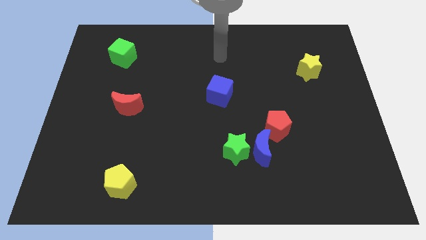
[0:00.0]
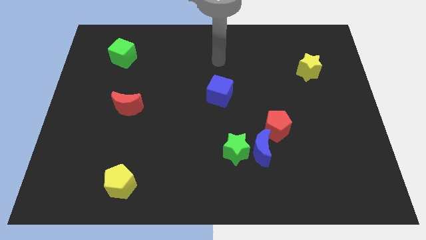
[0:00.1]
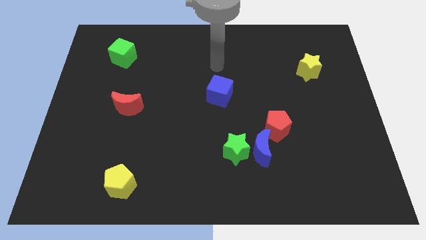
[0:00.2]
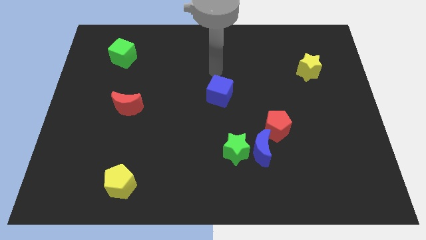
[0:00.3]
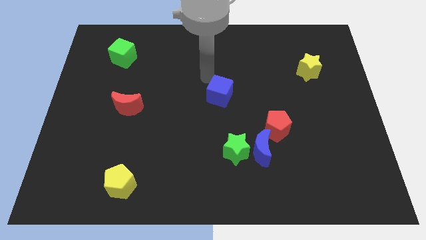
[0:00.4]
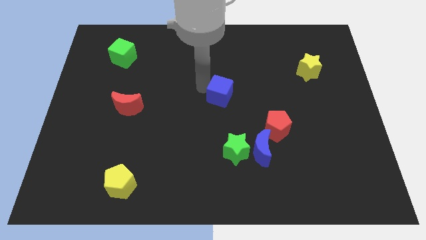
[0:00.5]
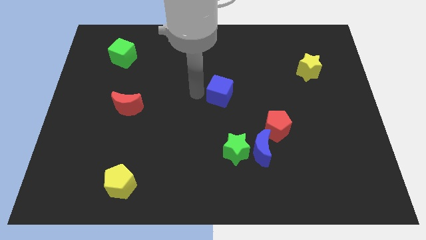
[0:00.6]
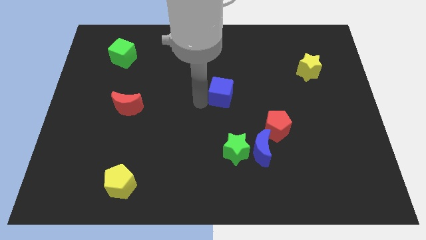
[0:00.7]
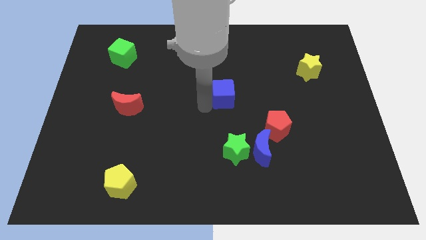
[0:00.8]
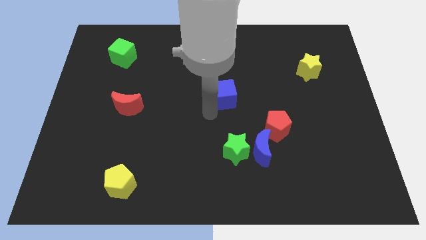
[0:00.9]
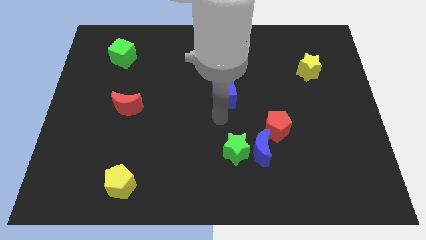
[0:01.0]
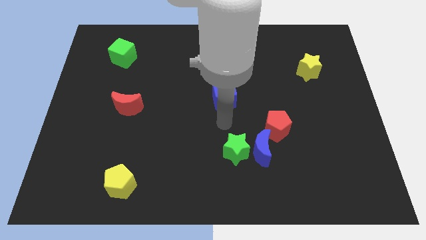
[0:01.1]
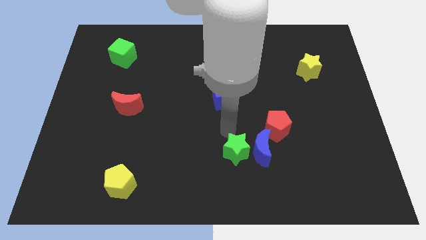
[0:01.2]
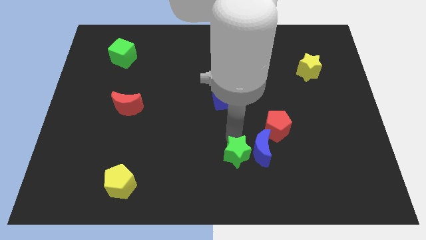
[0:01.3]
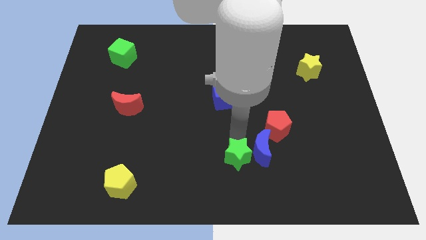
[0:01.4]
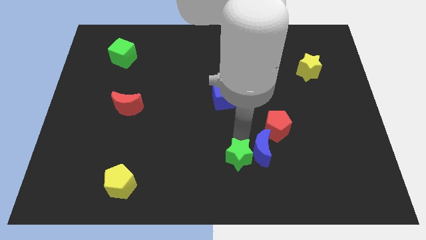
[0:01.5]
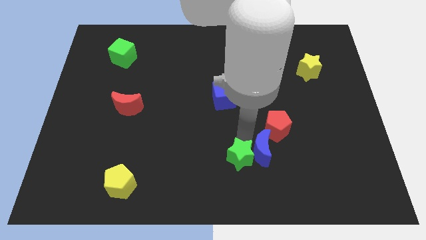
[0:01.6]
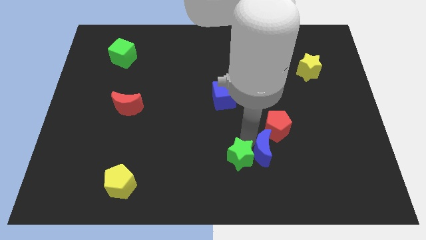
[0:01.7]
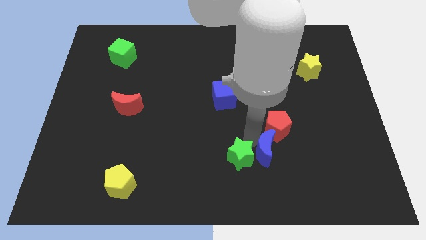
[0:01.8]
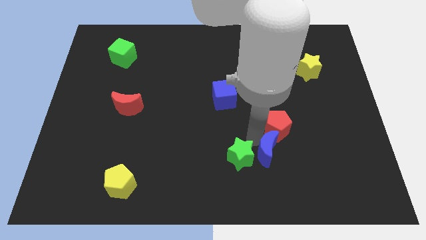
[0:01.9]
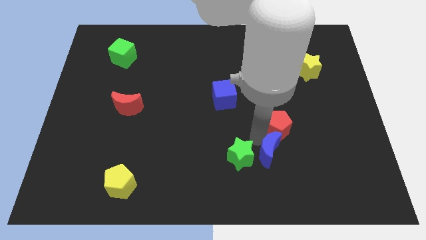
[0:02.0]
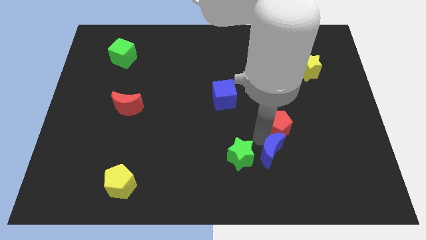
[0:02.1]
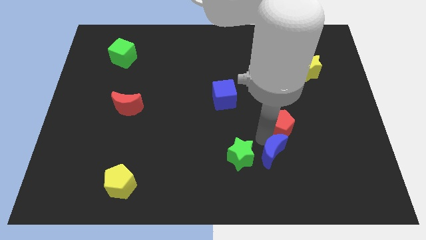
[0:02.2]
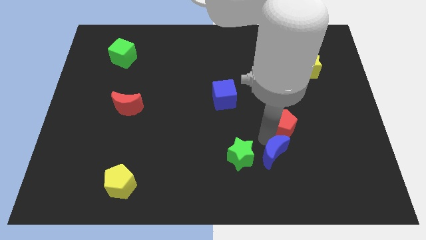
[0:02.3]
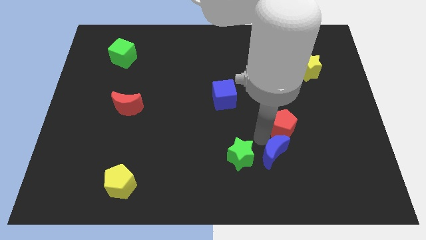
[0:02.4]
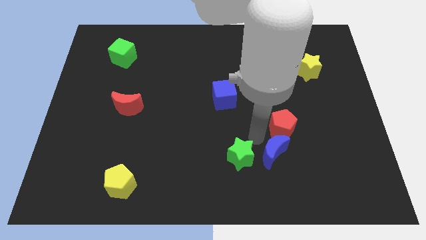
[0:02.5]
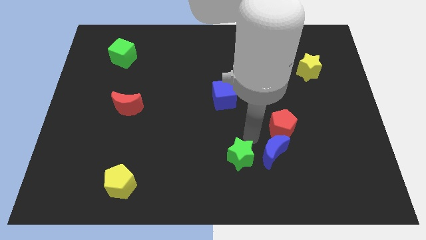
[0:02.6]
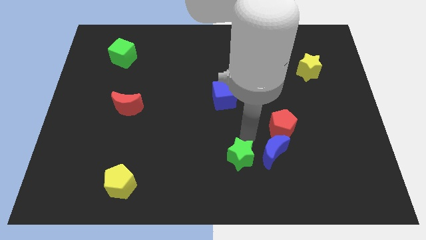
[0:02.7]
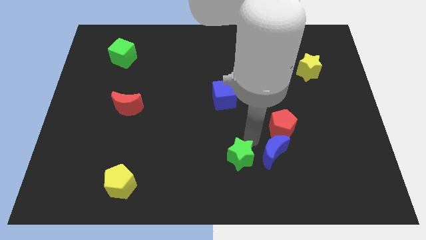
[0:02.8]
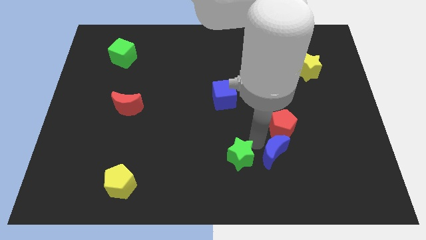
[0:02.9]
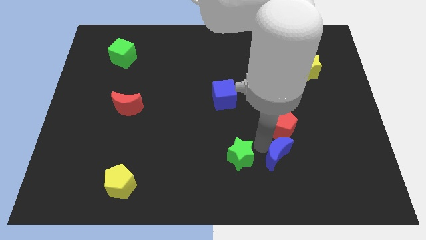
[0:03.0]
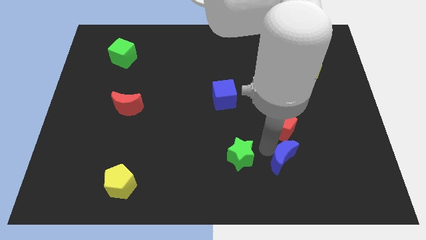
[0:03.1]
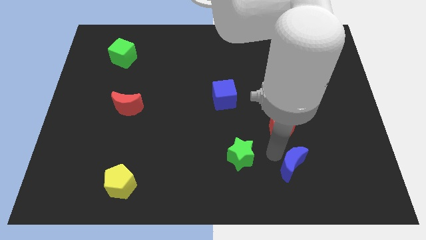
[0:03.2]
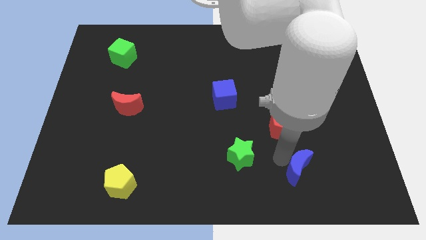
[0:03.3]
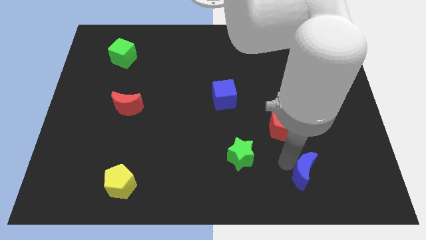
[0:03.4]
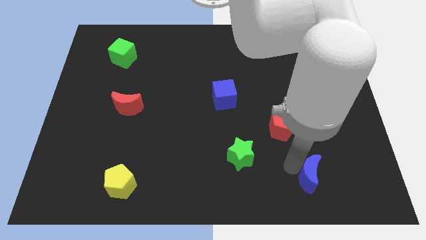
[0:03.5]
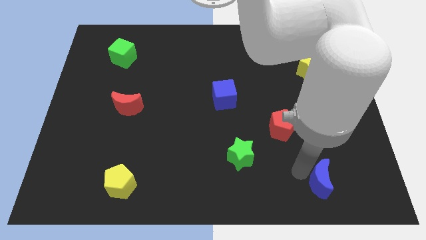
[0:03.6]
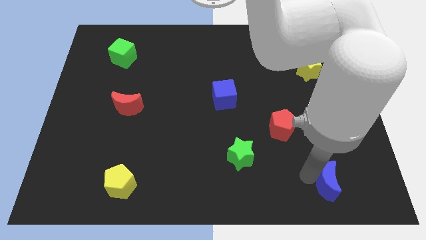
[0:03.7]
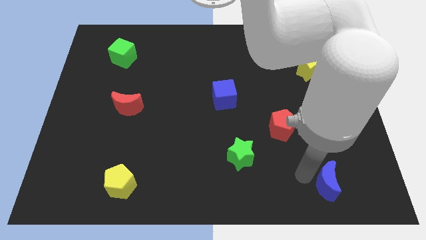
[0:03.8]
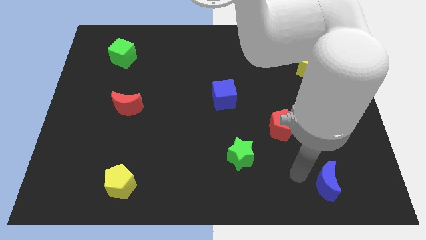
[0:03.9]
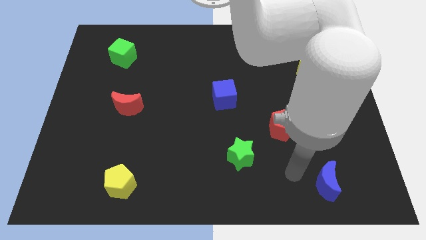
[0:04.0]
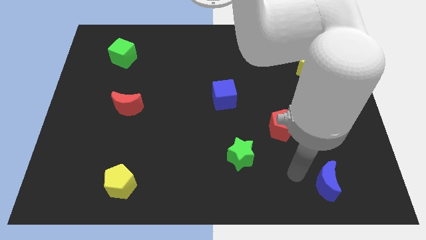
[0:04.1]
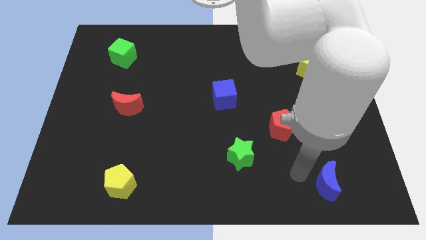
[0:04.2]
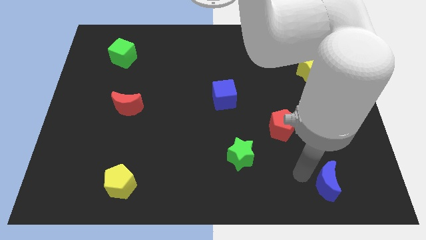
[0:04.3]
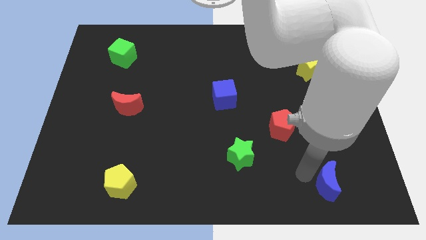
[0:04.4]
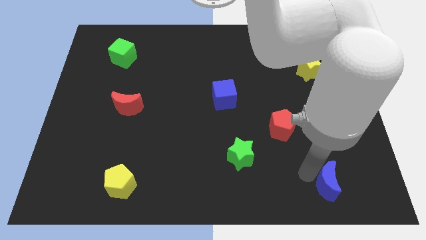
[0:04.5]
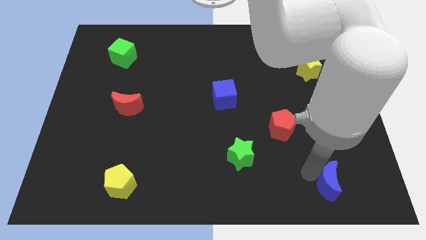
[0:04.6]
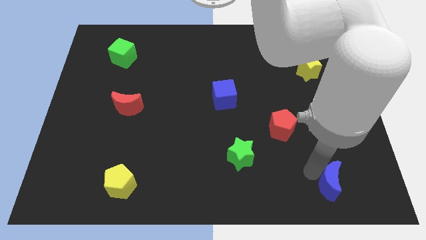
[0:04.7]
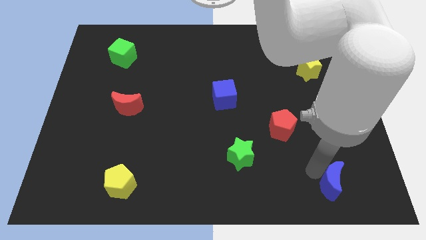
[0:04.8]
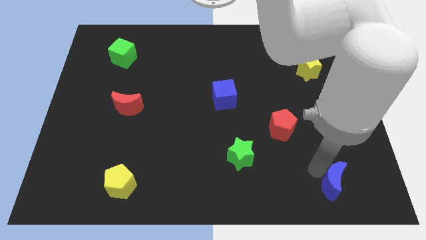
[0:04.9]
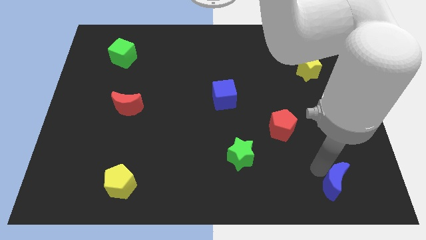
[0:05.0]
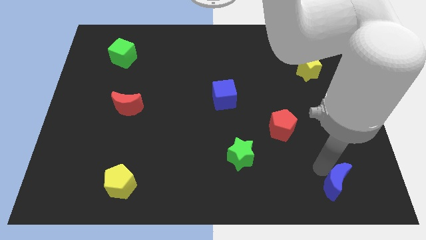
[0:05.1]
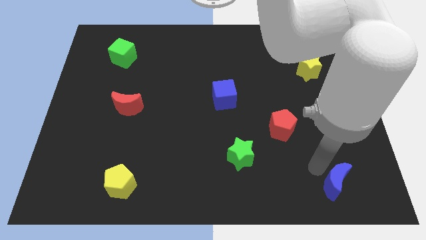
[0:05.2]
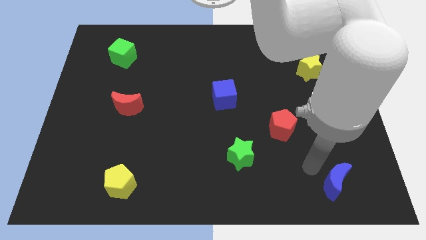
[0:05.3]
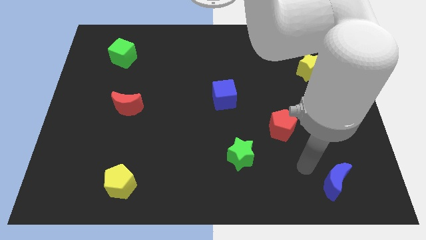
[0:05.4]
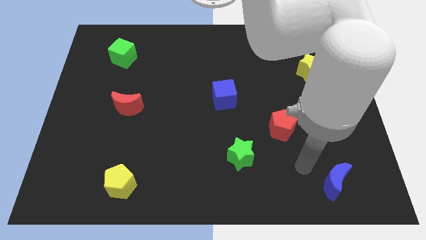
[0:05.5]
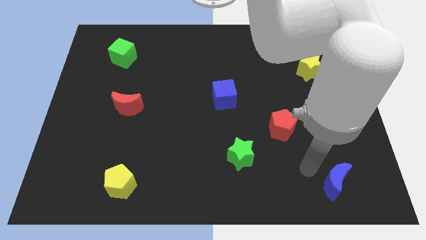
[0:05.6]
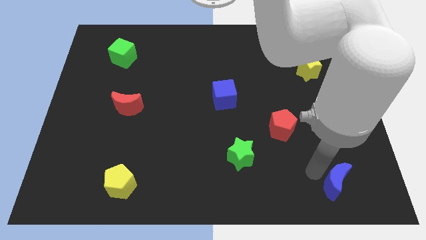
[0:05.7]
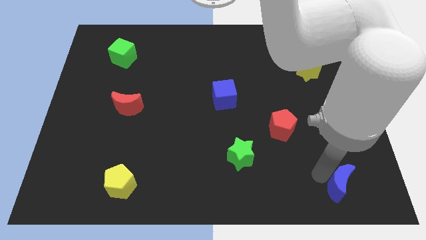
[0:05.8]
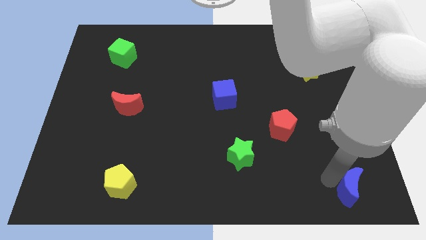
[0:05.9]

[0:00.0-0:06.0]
move the blue moon to the lower right corner

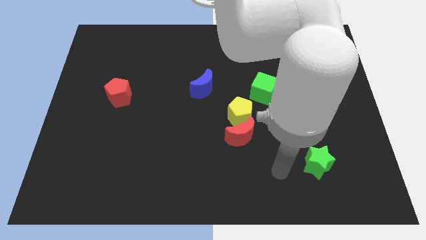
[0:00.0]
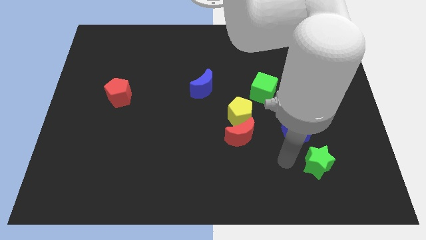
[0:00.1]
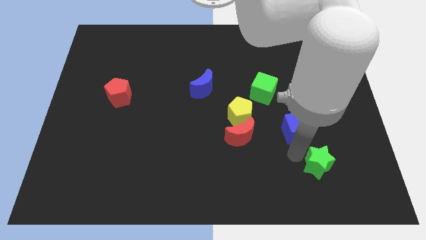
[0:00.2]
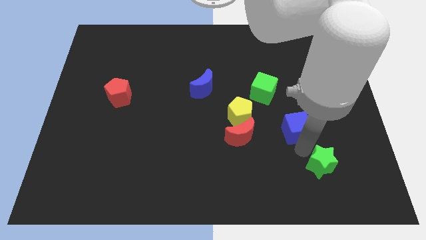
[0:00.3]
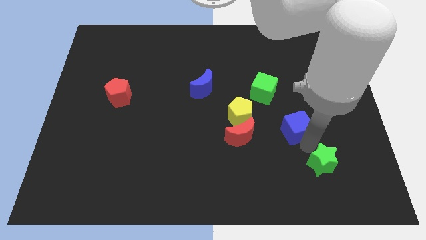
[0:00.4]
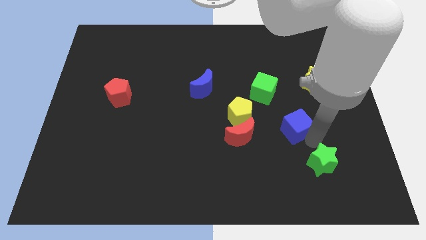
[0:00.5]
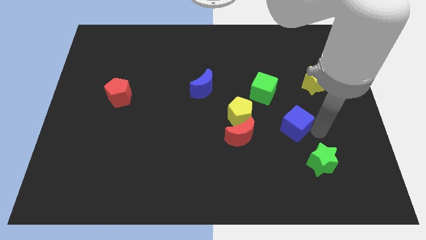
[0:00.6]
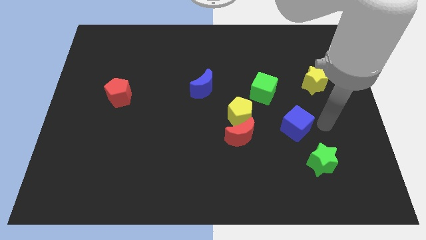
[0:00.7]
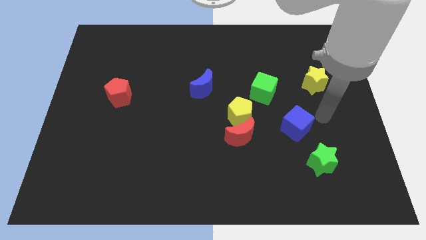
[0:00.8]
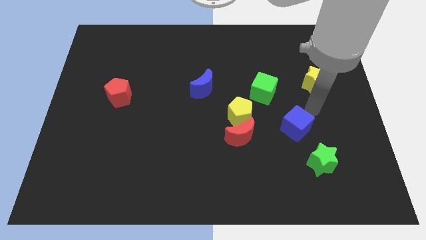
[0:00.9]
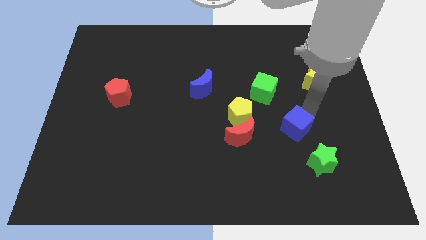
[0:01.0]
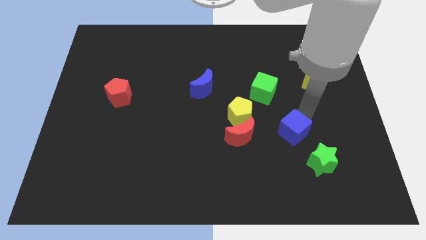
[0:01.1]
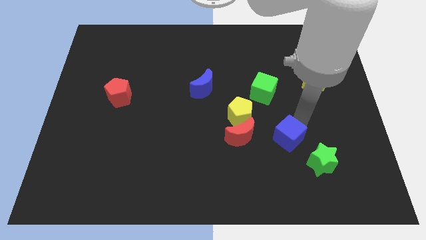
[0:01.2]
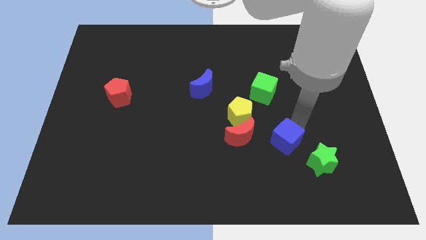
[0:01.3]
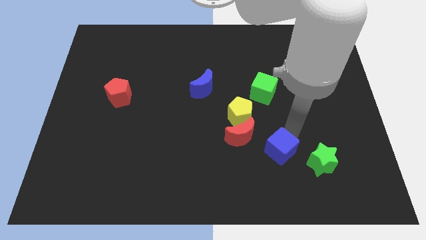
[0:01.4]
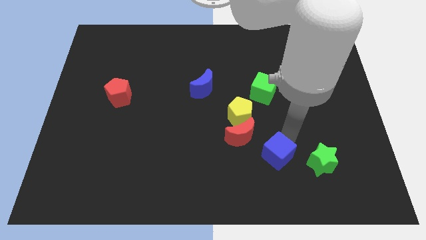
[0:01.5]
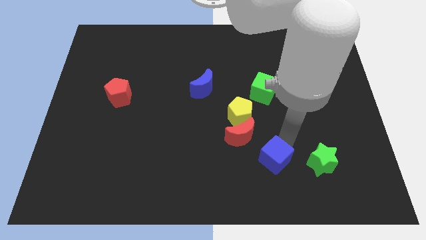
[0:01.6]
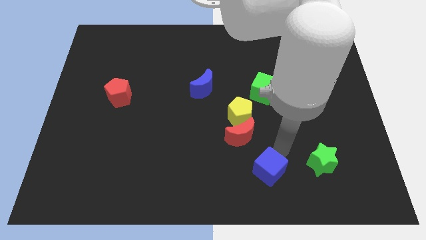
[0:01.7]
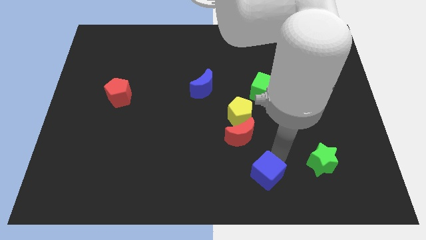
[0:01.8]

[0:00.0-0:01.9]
move the blue cube to the bottom
